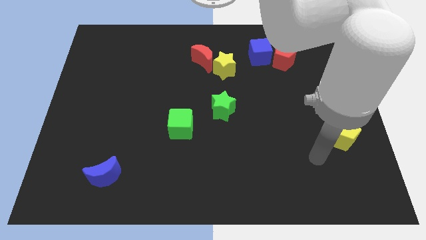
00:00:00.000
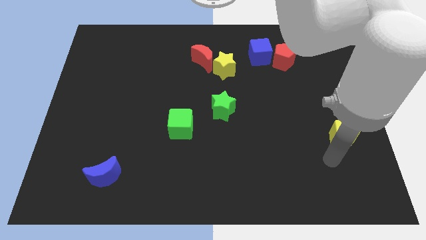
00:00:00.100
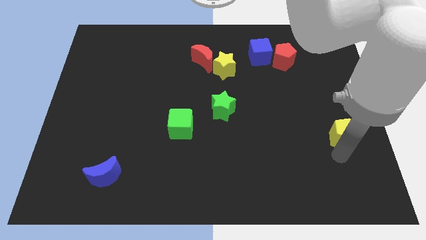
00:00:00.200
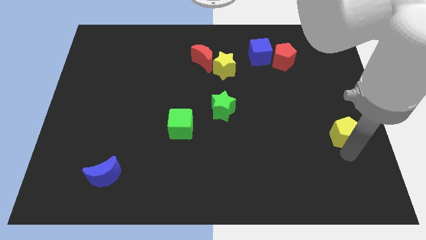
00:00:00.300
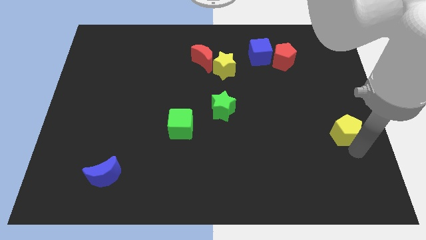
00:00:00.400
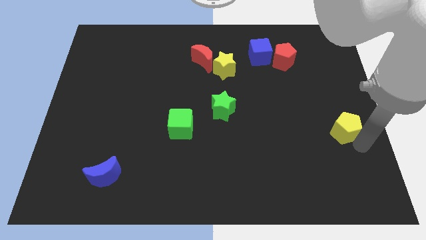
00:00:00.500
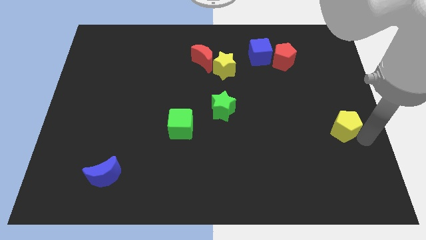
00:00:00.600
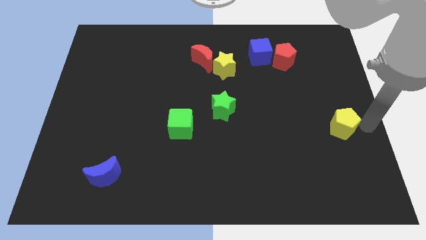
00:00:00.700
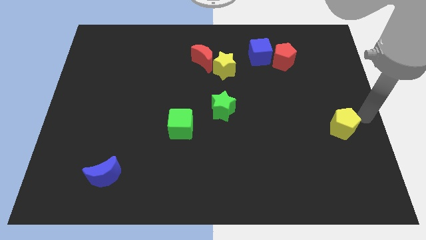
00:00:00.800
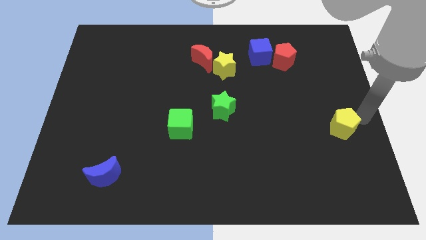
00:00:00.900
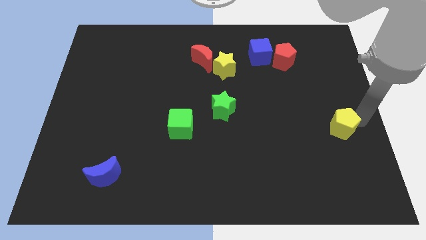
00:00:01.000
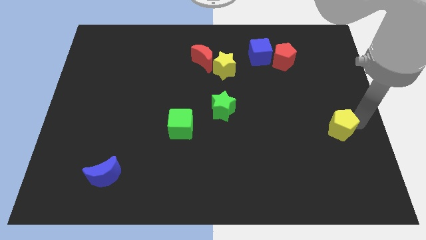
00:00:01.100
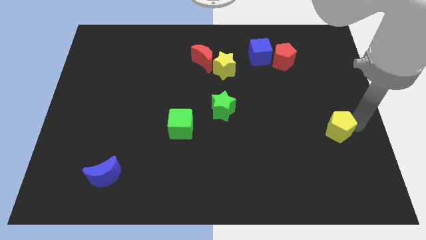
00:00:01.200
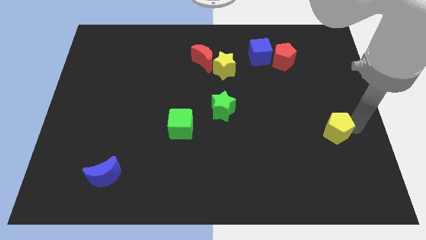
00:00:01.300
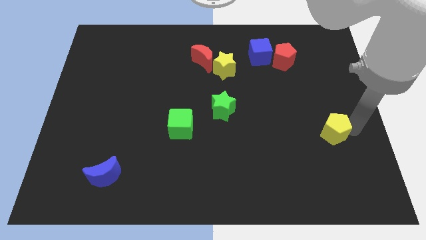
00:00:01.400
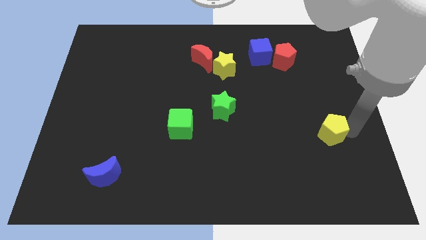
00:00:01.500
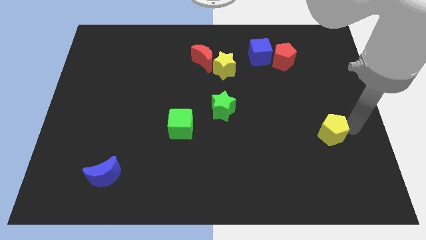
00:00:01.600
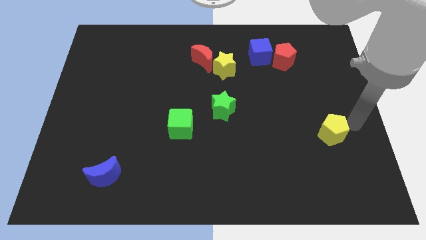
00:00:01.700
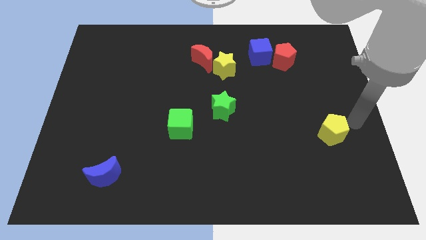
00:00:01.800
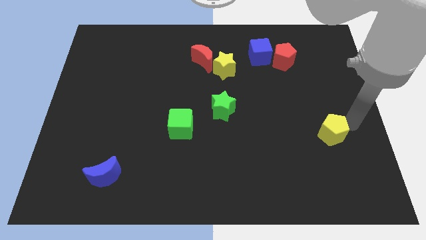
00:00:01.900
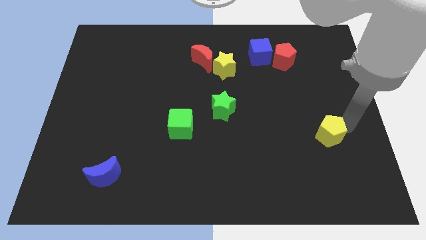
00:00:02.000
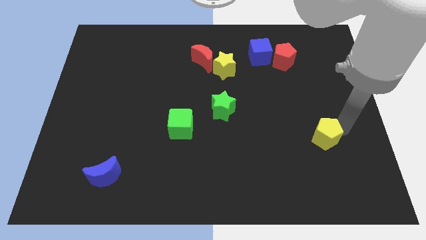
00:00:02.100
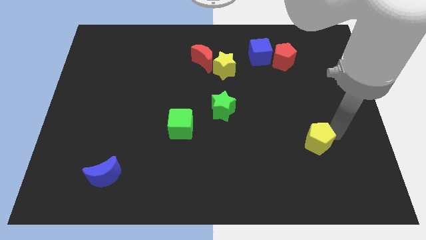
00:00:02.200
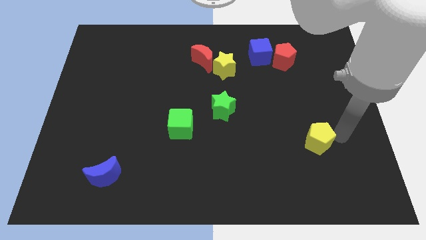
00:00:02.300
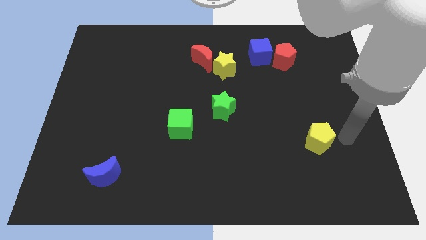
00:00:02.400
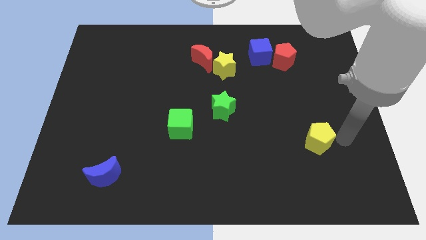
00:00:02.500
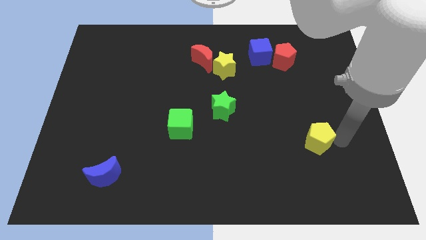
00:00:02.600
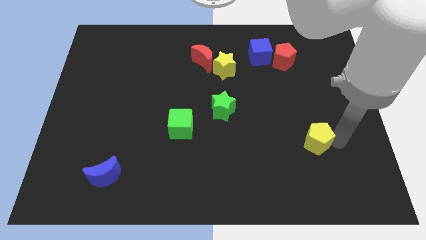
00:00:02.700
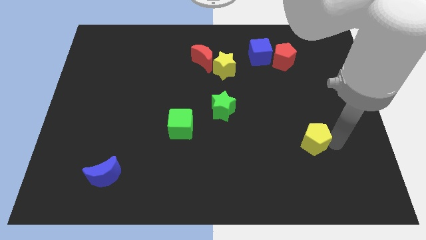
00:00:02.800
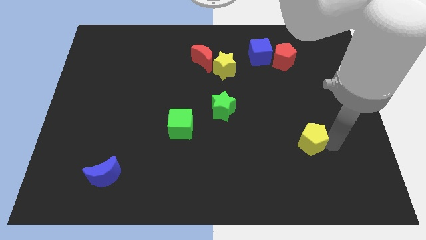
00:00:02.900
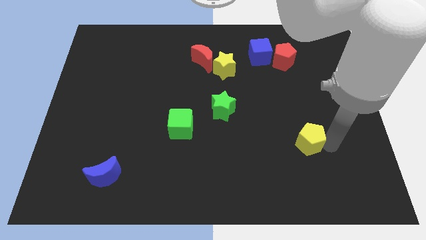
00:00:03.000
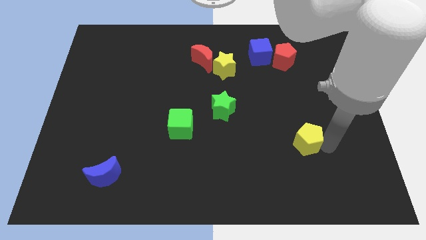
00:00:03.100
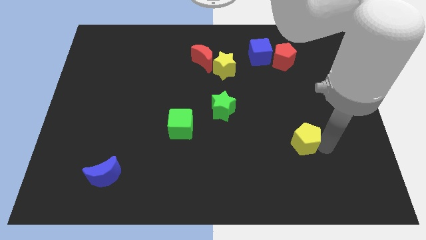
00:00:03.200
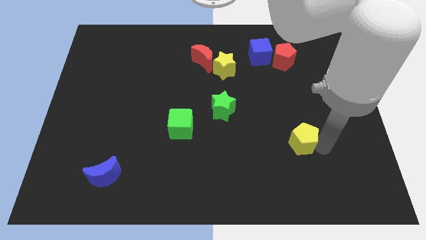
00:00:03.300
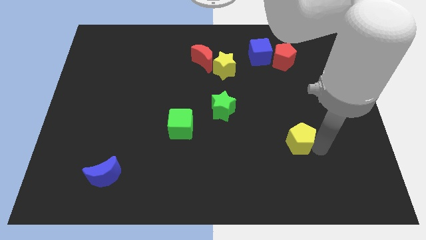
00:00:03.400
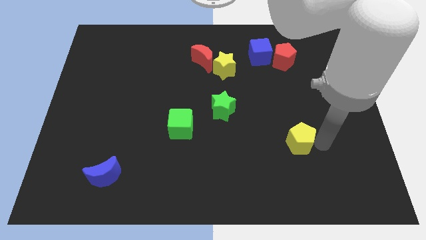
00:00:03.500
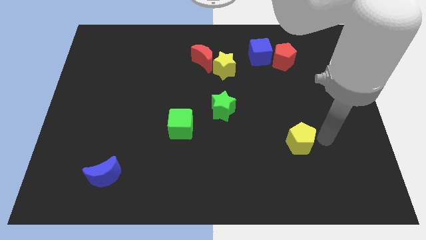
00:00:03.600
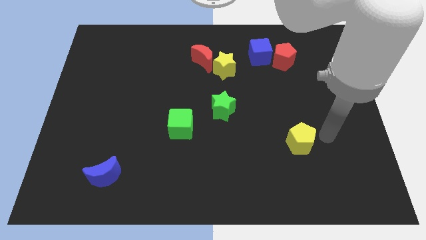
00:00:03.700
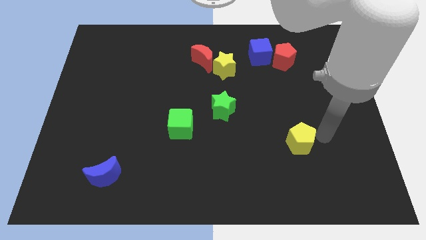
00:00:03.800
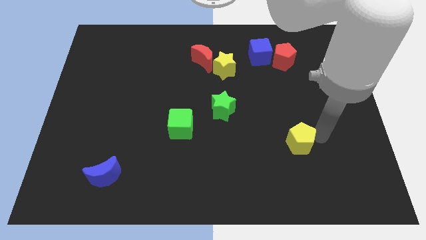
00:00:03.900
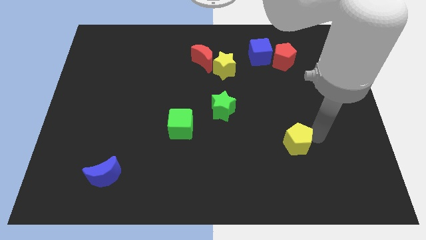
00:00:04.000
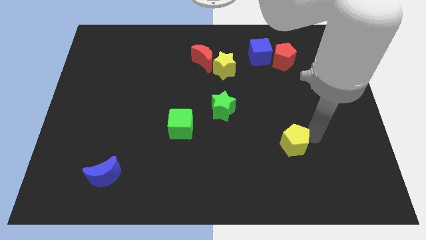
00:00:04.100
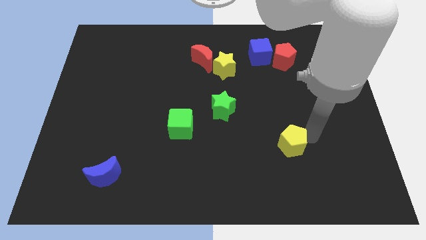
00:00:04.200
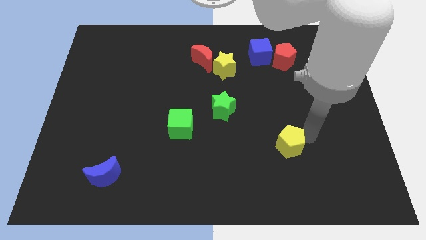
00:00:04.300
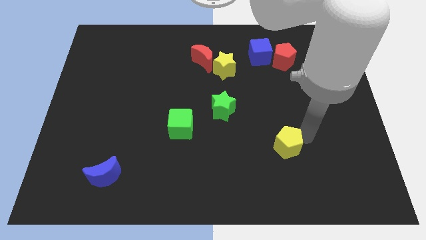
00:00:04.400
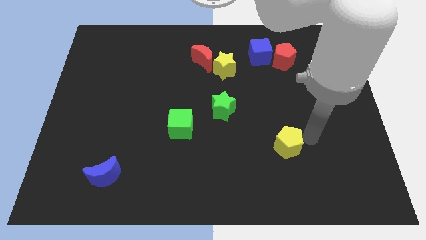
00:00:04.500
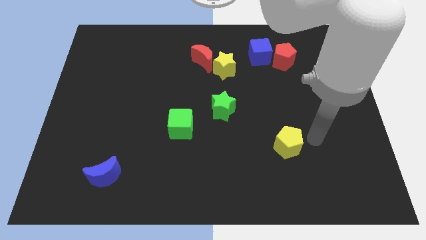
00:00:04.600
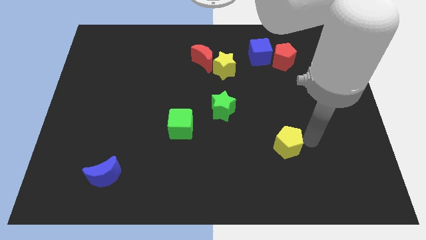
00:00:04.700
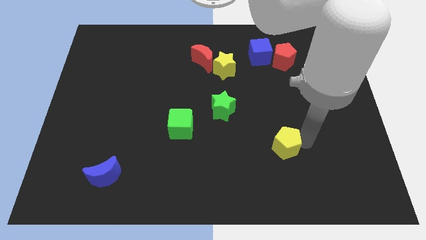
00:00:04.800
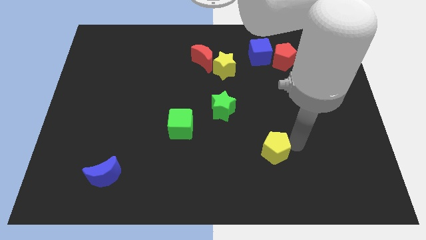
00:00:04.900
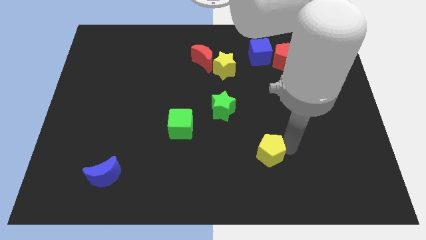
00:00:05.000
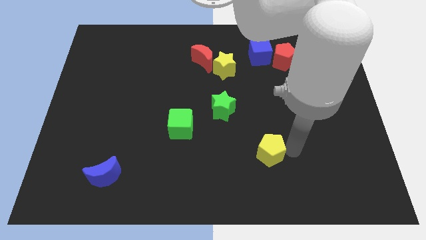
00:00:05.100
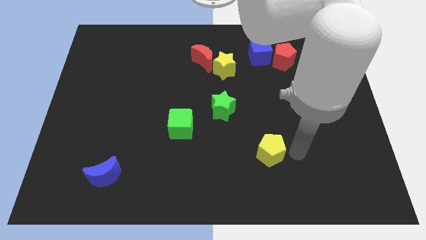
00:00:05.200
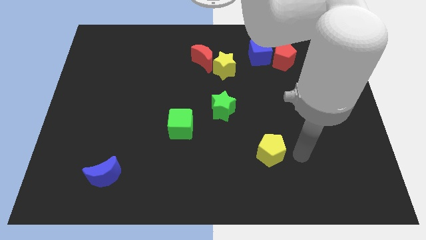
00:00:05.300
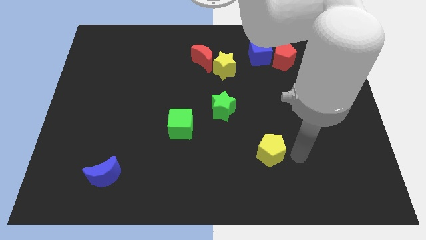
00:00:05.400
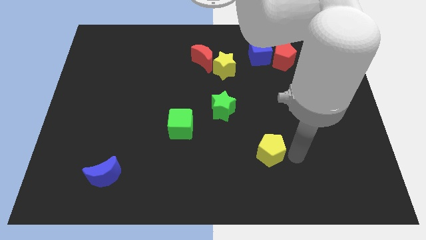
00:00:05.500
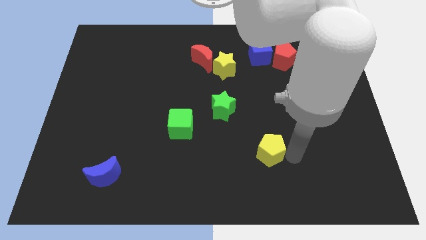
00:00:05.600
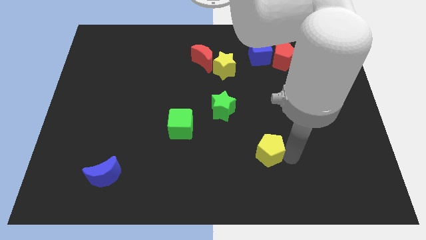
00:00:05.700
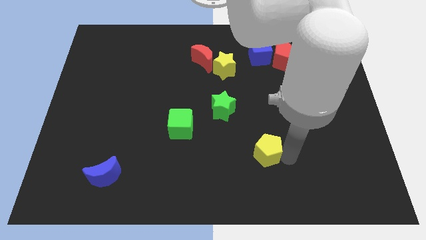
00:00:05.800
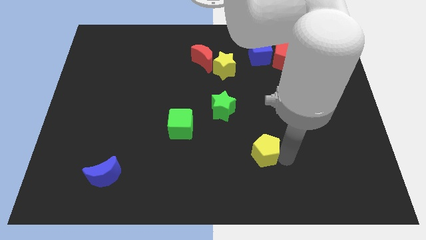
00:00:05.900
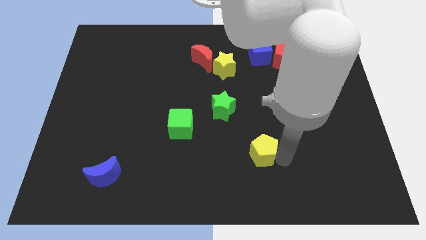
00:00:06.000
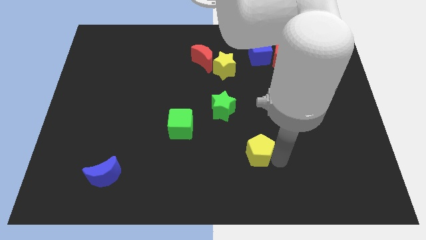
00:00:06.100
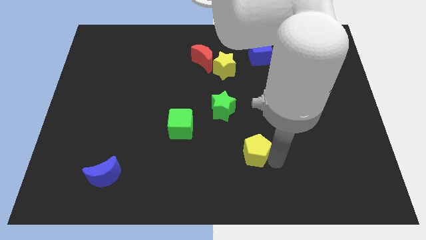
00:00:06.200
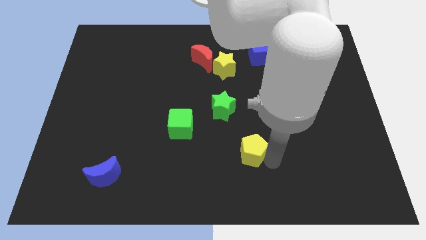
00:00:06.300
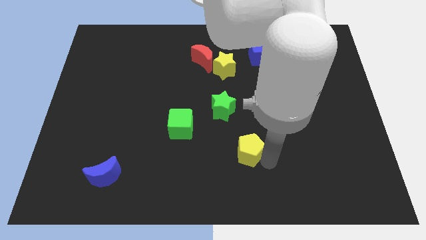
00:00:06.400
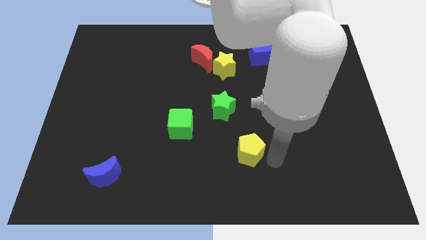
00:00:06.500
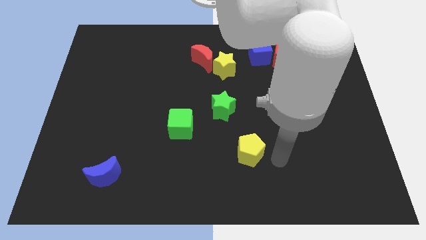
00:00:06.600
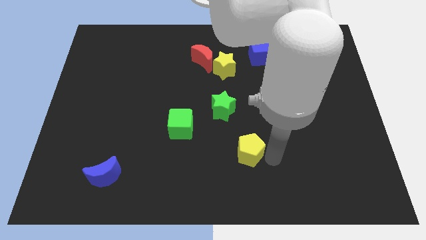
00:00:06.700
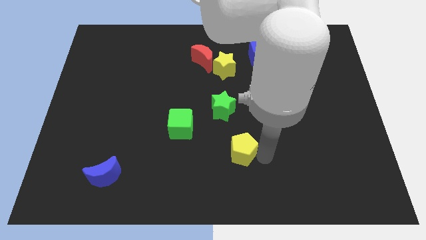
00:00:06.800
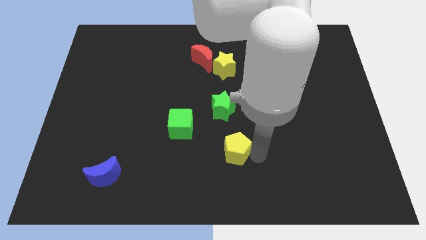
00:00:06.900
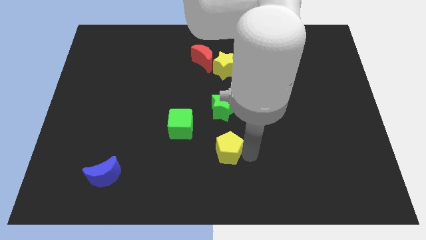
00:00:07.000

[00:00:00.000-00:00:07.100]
move the yellow pentagon to the bottom right of the green cube

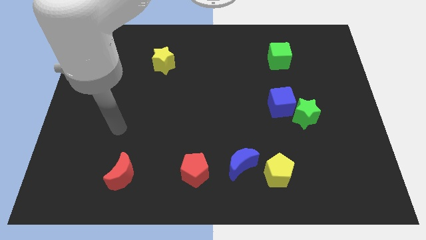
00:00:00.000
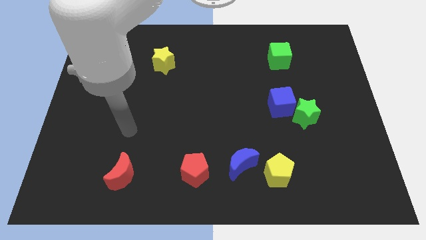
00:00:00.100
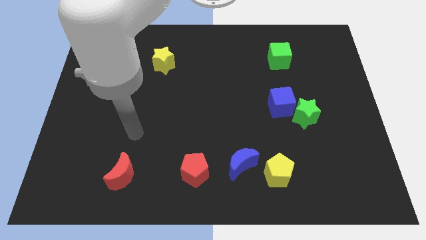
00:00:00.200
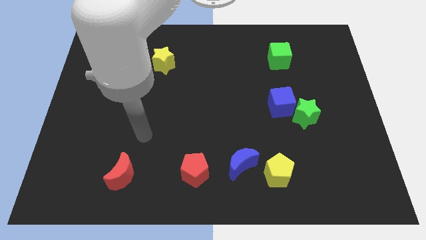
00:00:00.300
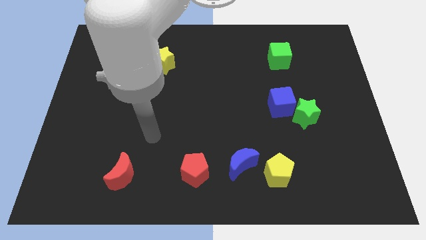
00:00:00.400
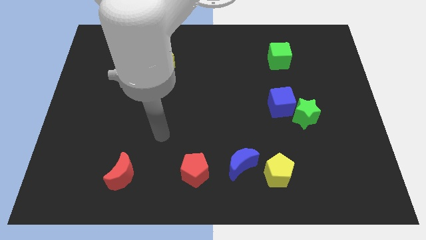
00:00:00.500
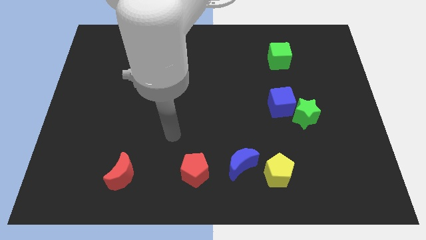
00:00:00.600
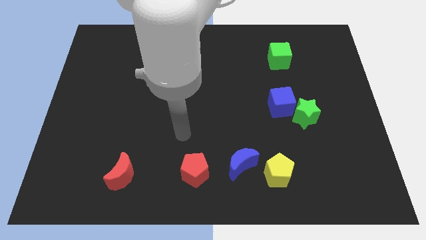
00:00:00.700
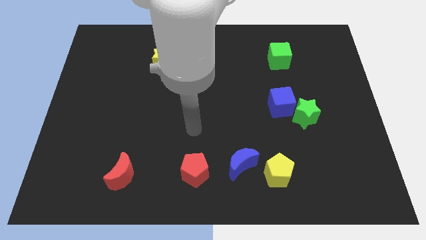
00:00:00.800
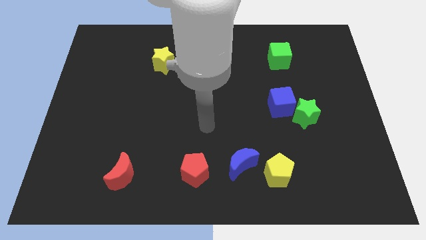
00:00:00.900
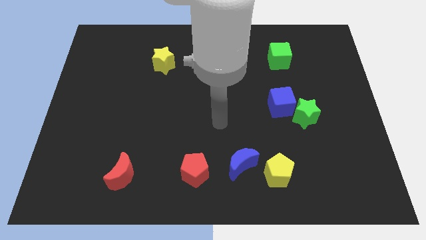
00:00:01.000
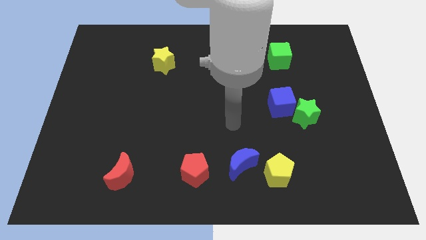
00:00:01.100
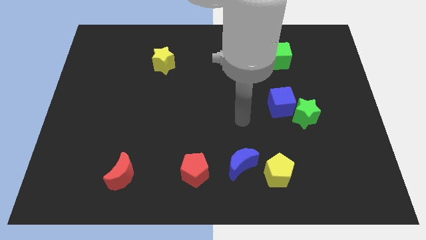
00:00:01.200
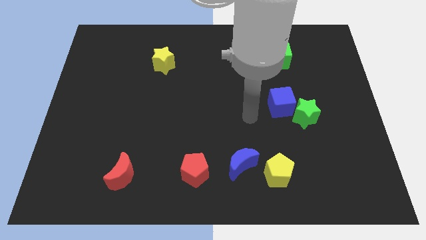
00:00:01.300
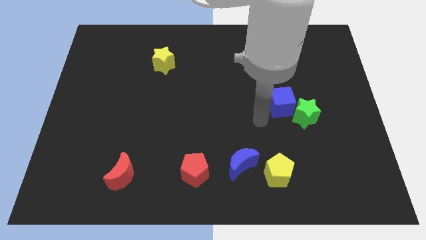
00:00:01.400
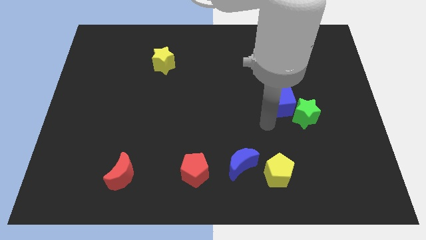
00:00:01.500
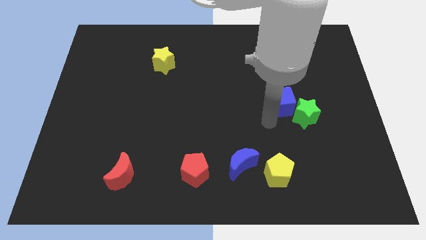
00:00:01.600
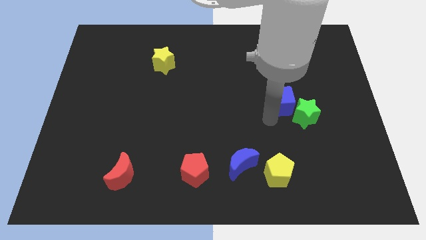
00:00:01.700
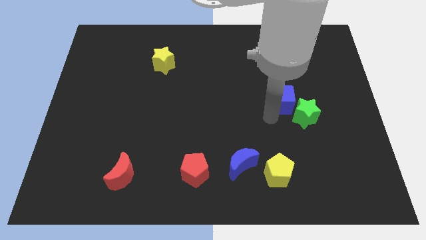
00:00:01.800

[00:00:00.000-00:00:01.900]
move the blue cube above the green star
